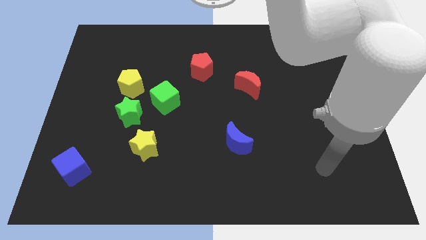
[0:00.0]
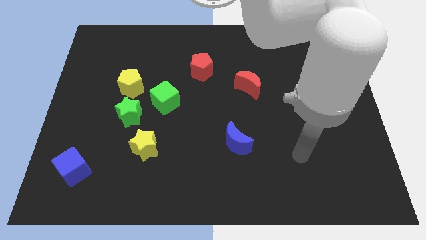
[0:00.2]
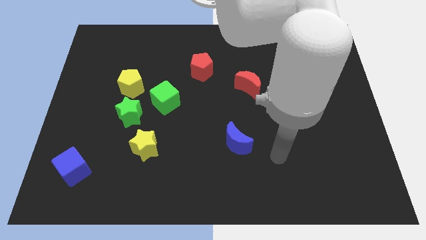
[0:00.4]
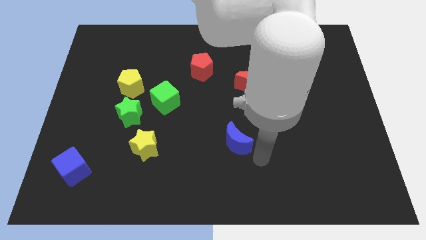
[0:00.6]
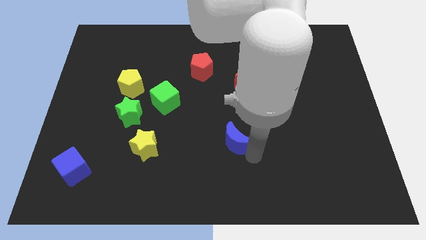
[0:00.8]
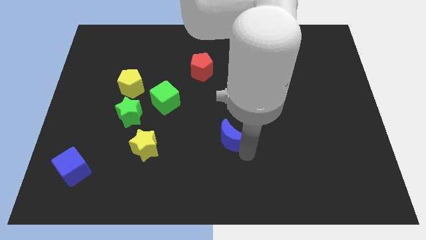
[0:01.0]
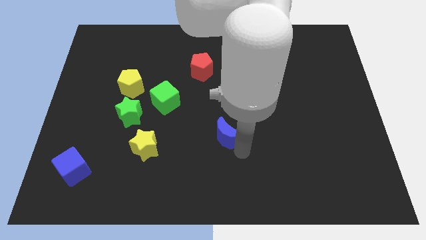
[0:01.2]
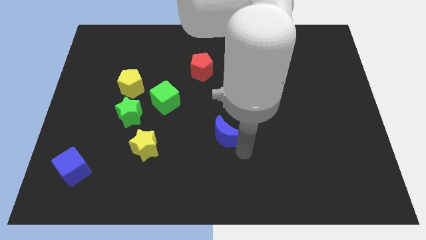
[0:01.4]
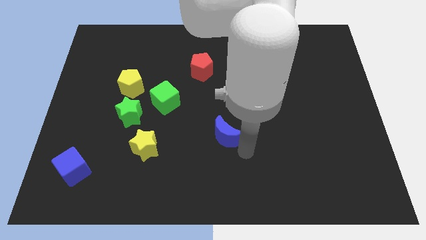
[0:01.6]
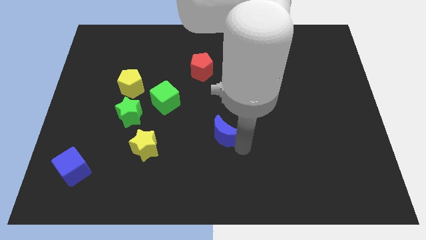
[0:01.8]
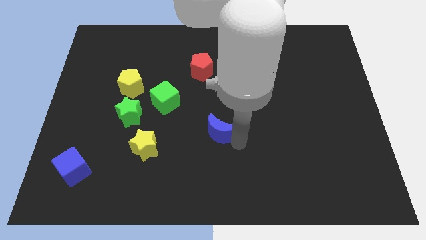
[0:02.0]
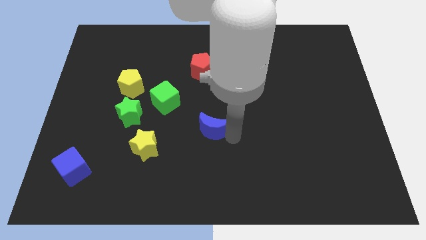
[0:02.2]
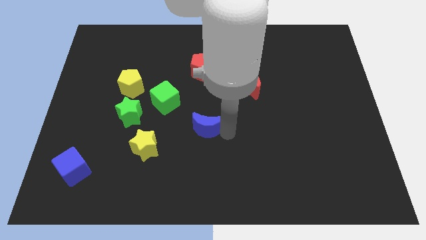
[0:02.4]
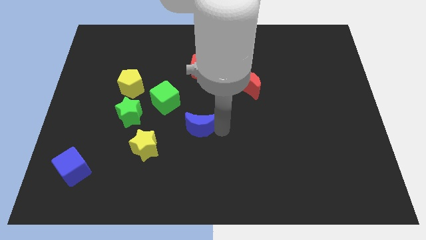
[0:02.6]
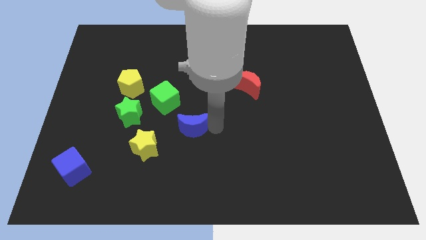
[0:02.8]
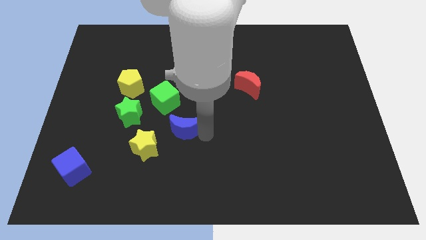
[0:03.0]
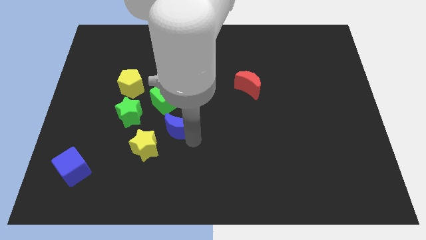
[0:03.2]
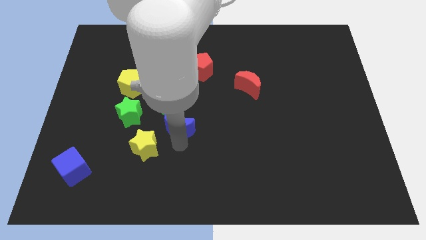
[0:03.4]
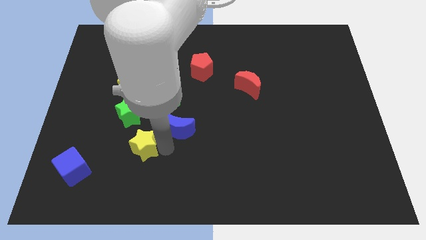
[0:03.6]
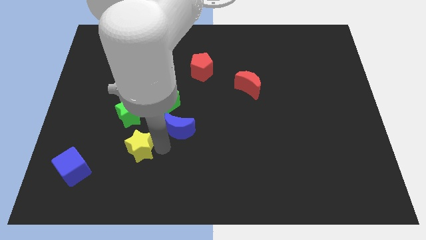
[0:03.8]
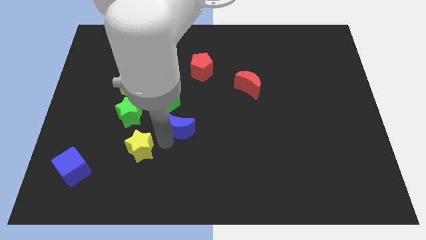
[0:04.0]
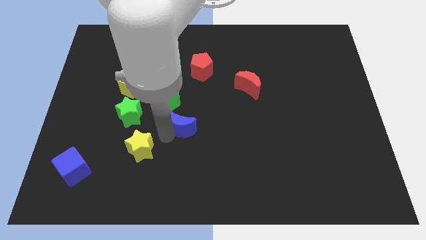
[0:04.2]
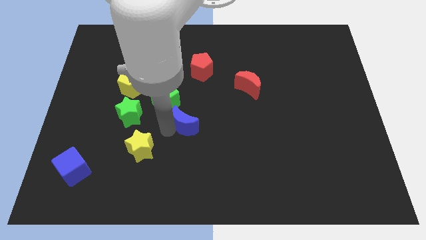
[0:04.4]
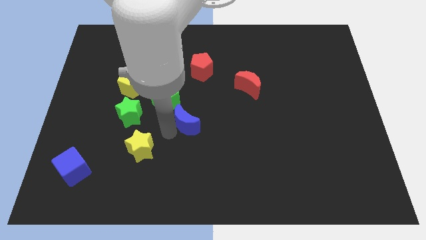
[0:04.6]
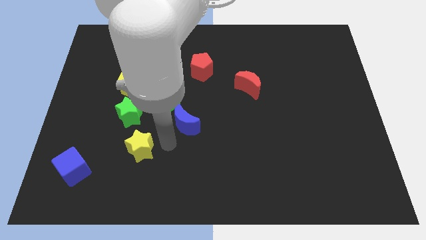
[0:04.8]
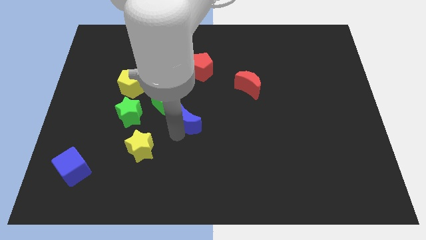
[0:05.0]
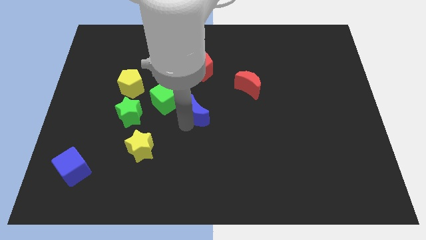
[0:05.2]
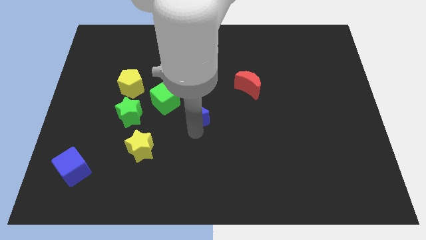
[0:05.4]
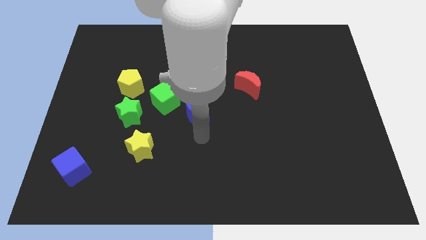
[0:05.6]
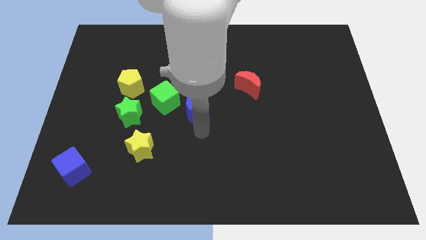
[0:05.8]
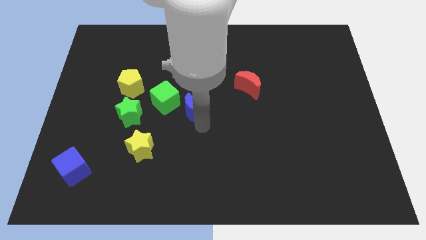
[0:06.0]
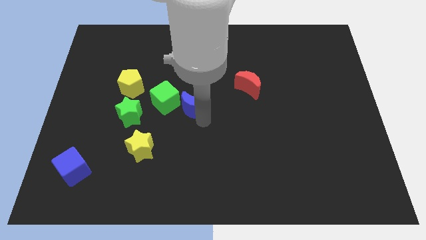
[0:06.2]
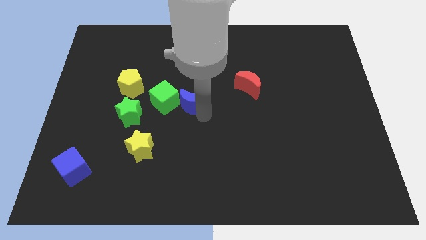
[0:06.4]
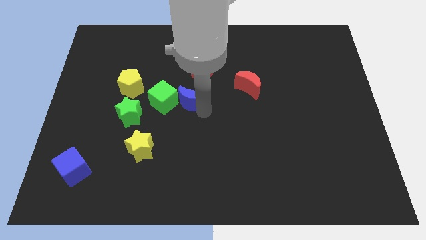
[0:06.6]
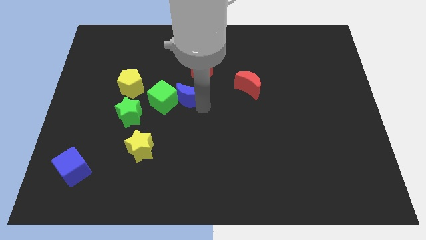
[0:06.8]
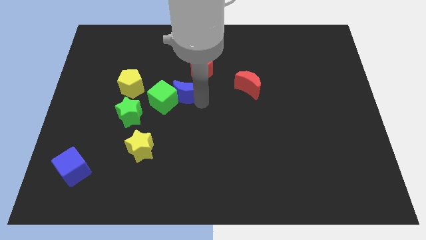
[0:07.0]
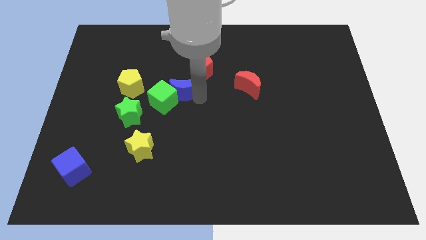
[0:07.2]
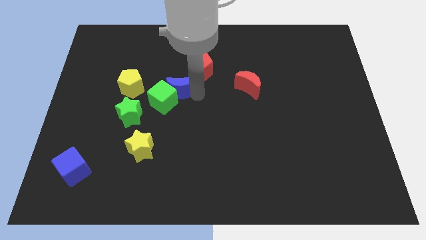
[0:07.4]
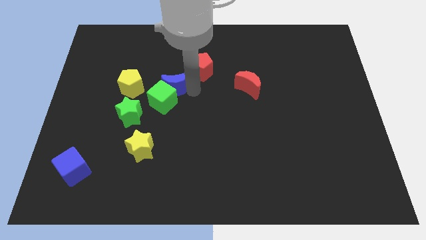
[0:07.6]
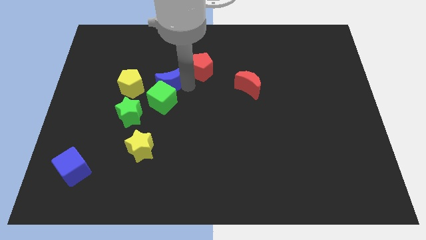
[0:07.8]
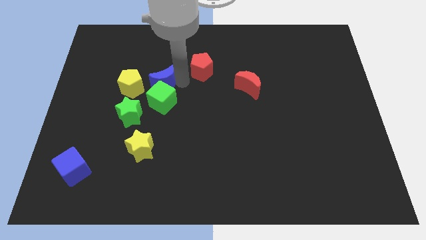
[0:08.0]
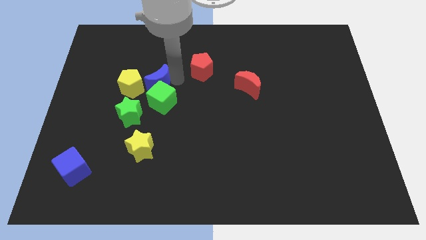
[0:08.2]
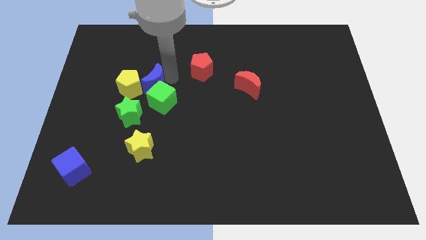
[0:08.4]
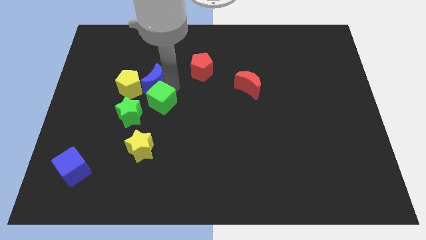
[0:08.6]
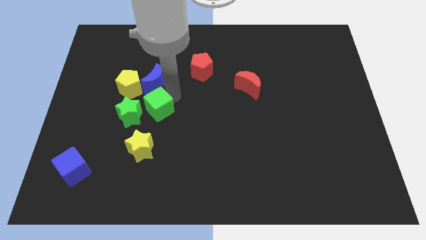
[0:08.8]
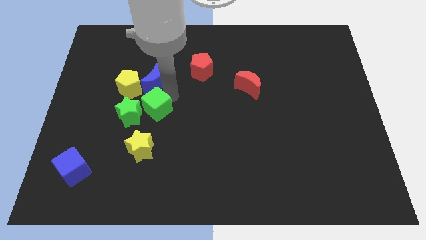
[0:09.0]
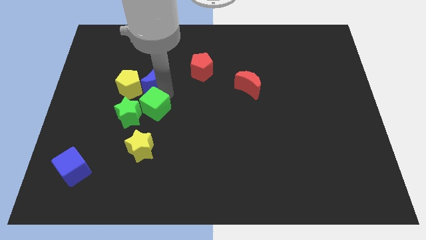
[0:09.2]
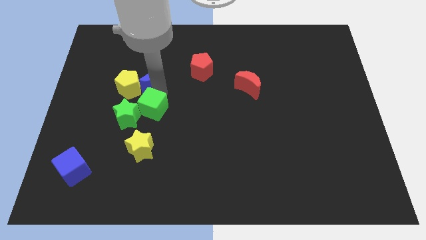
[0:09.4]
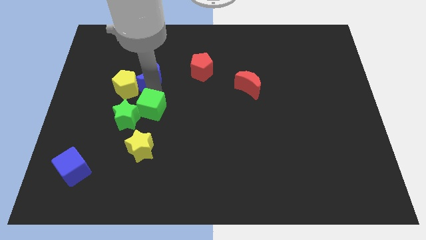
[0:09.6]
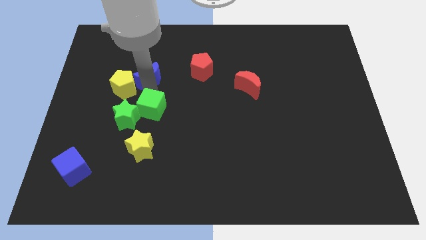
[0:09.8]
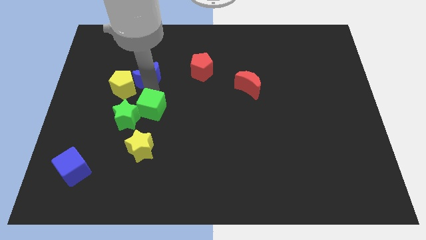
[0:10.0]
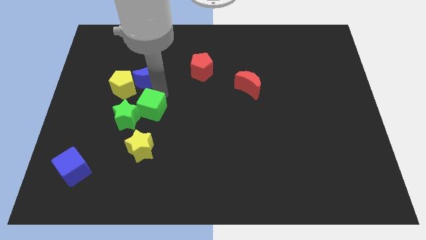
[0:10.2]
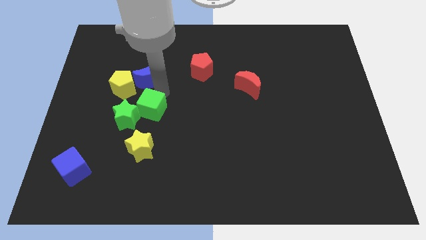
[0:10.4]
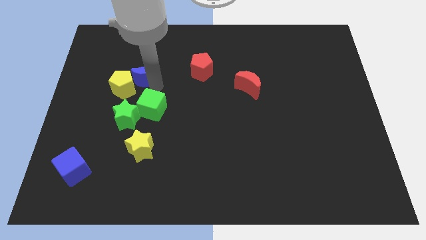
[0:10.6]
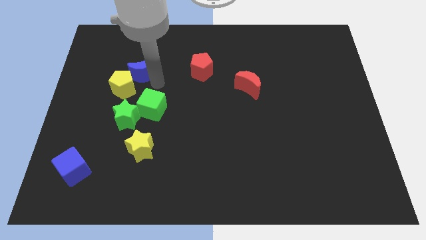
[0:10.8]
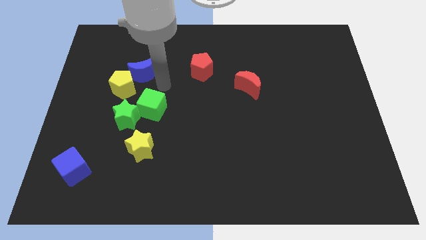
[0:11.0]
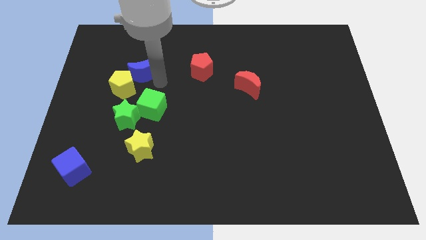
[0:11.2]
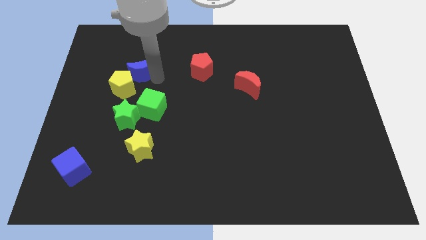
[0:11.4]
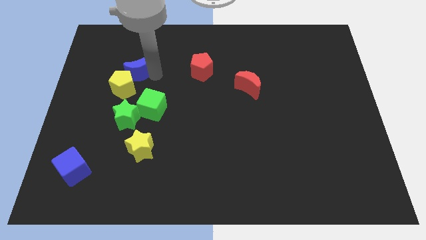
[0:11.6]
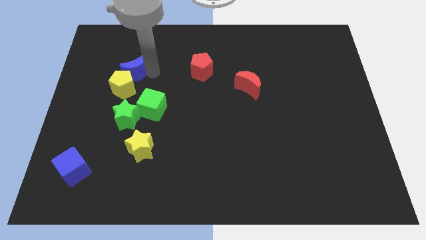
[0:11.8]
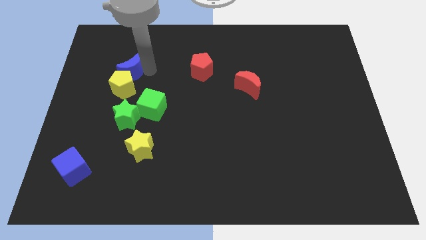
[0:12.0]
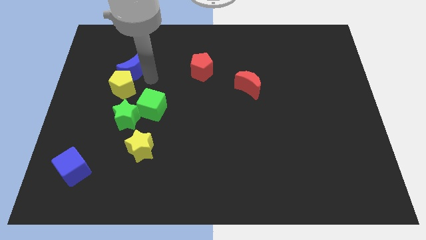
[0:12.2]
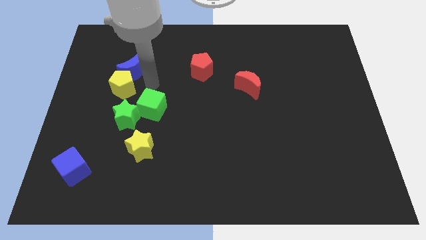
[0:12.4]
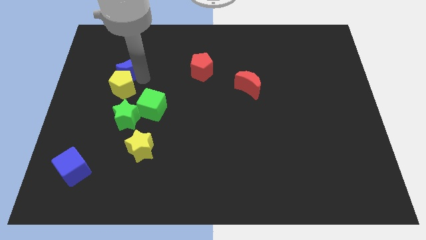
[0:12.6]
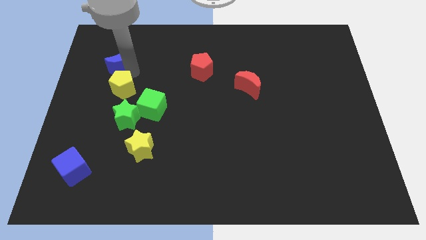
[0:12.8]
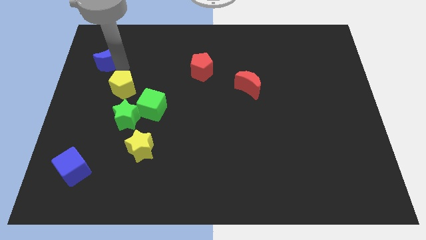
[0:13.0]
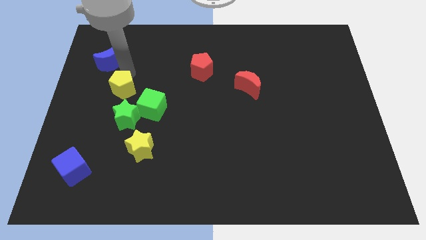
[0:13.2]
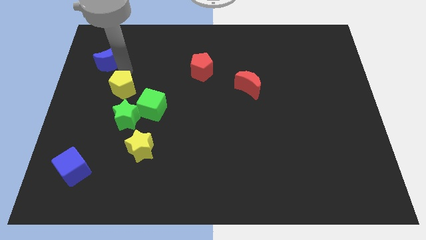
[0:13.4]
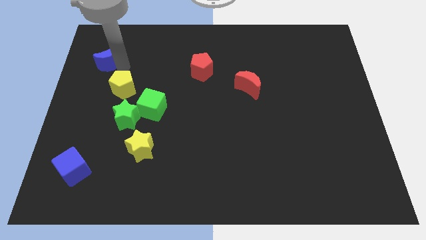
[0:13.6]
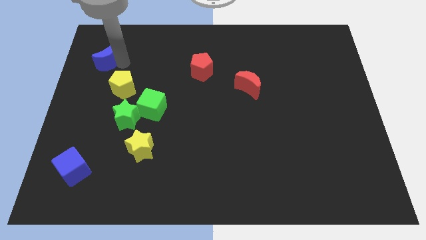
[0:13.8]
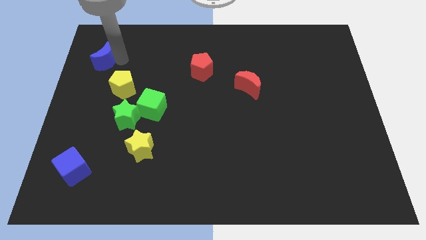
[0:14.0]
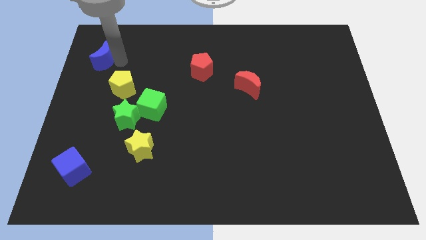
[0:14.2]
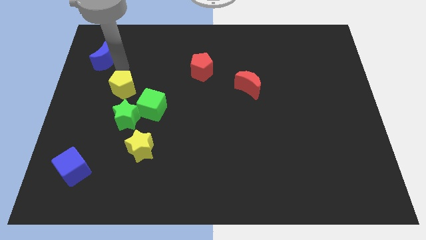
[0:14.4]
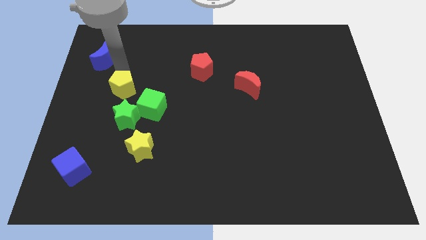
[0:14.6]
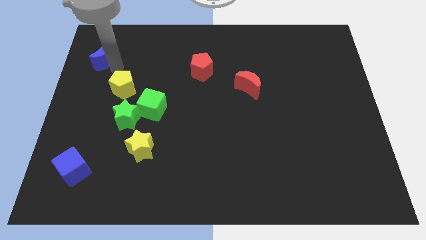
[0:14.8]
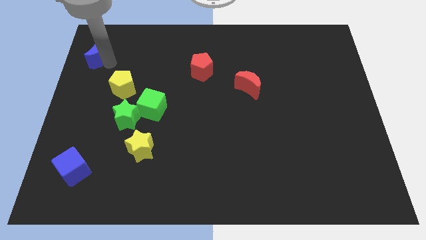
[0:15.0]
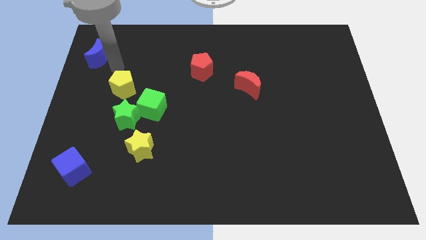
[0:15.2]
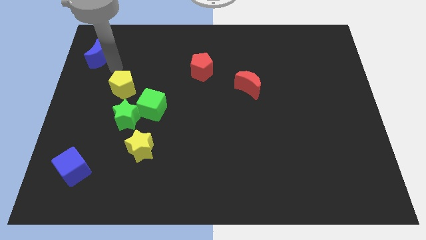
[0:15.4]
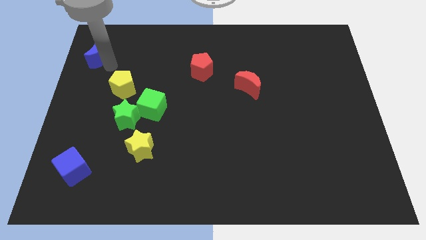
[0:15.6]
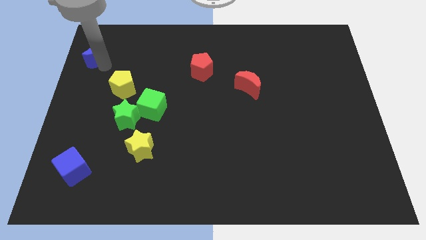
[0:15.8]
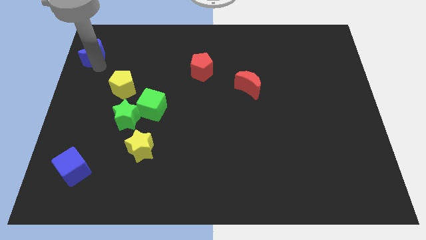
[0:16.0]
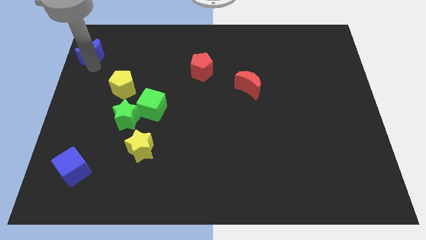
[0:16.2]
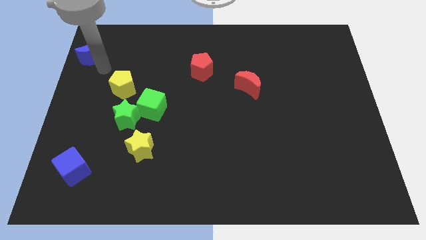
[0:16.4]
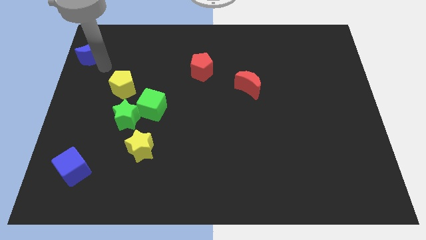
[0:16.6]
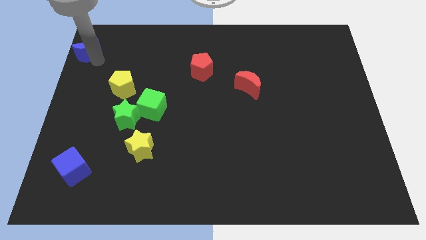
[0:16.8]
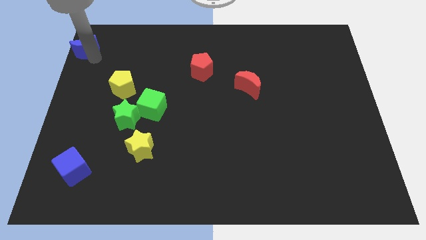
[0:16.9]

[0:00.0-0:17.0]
put the blue moon to the top left corner
